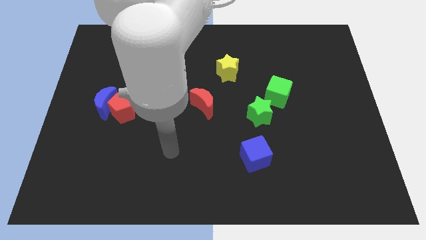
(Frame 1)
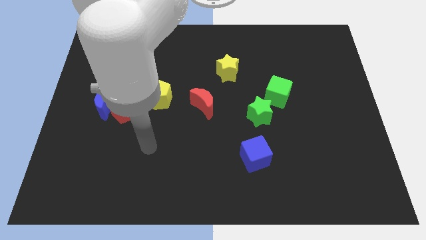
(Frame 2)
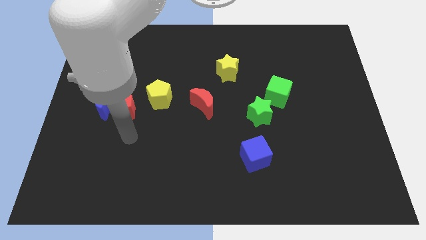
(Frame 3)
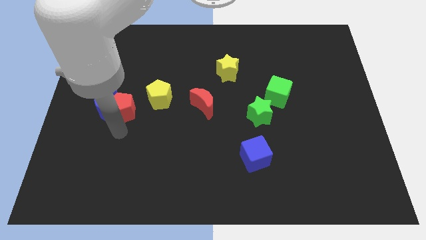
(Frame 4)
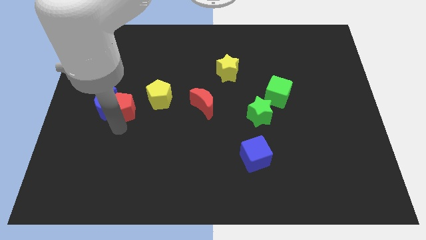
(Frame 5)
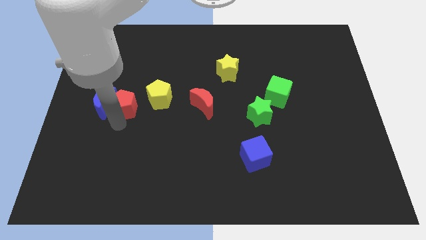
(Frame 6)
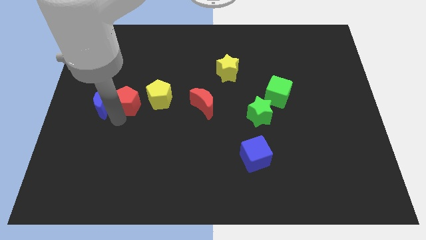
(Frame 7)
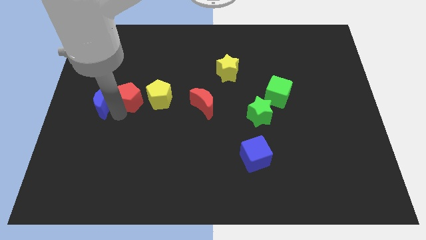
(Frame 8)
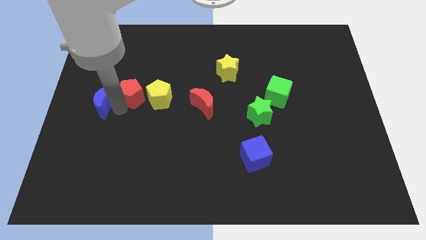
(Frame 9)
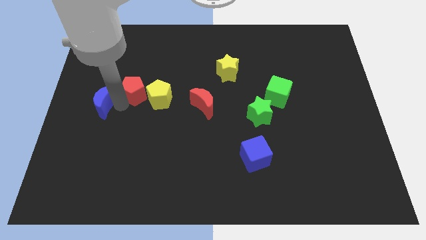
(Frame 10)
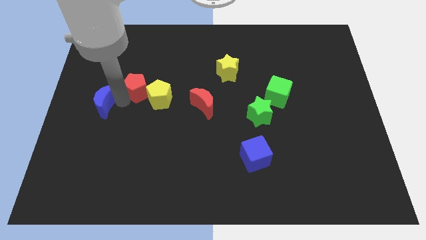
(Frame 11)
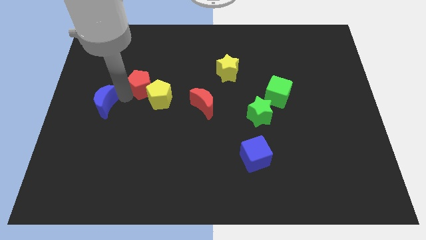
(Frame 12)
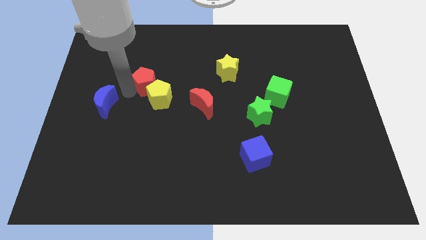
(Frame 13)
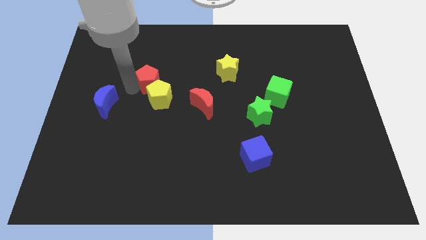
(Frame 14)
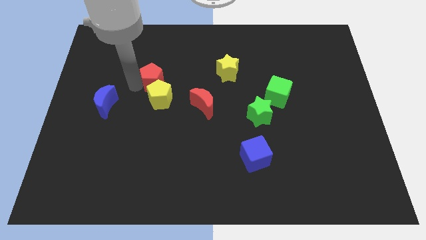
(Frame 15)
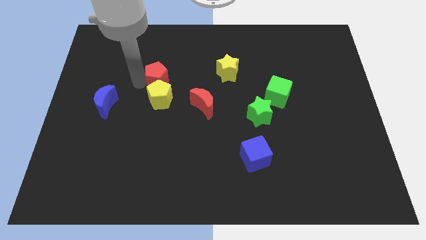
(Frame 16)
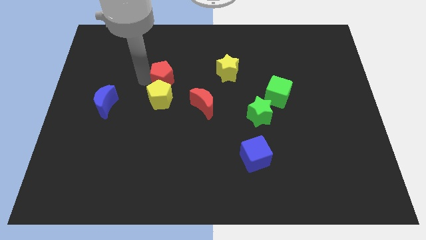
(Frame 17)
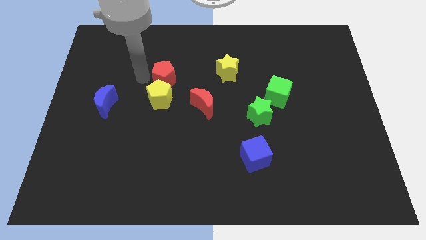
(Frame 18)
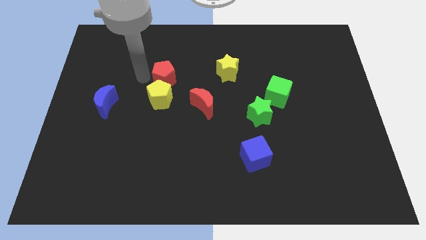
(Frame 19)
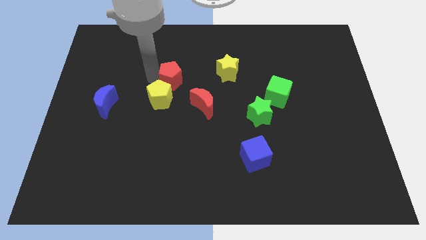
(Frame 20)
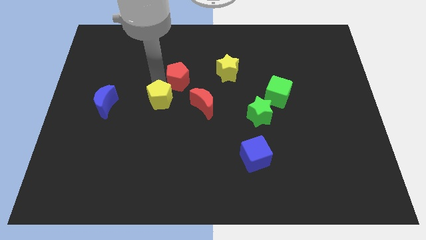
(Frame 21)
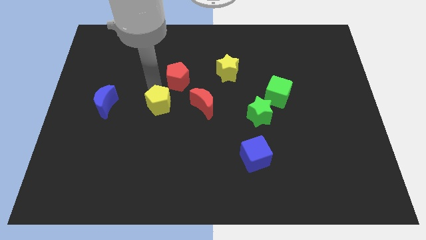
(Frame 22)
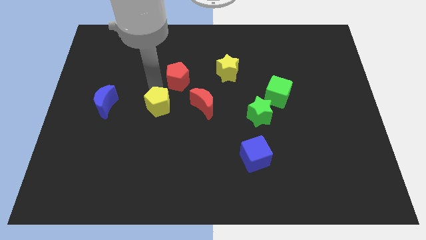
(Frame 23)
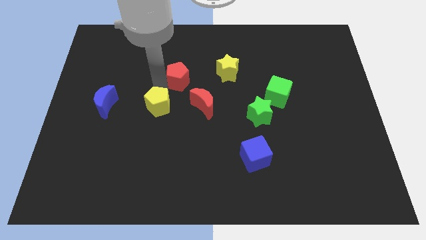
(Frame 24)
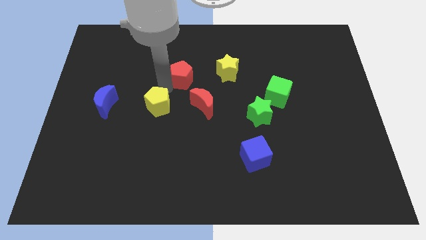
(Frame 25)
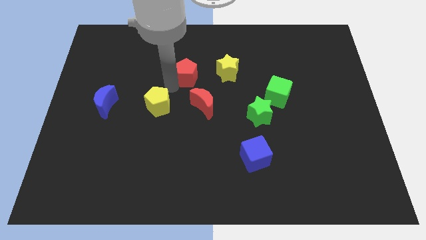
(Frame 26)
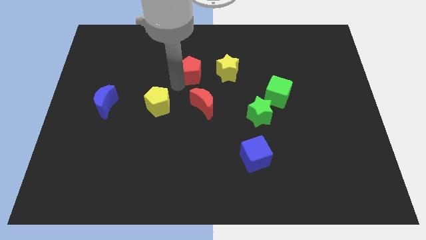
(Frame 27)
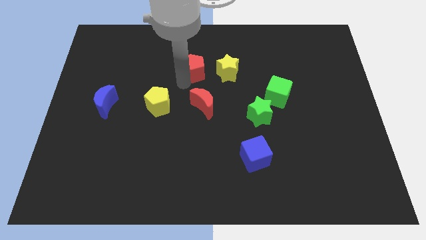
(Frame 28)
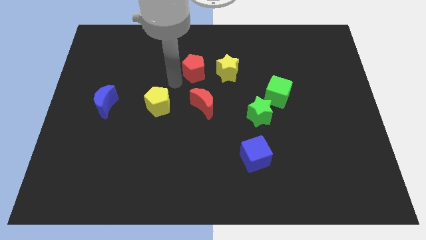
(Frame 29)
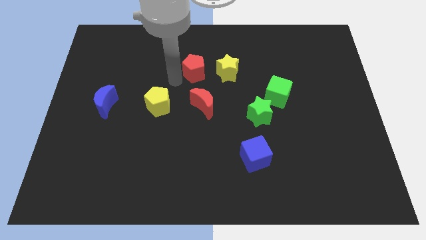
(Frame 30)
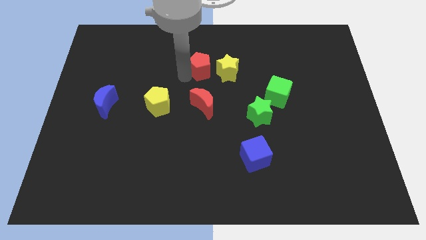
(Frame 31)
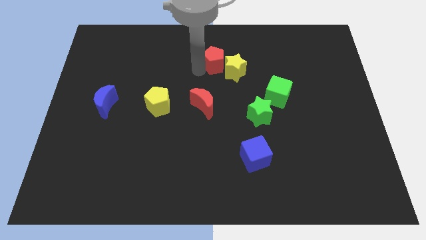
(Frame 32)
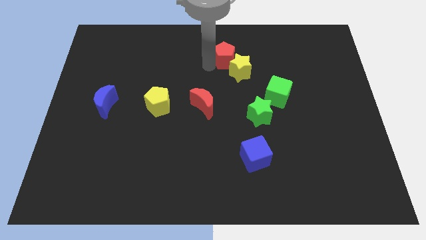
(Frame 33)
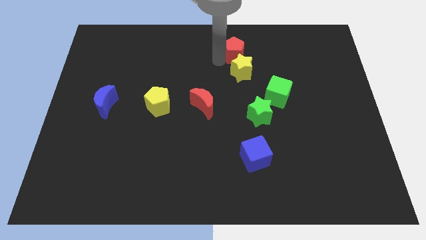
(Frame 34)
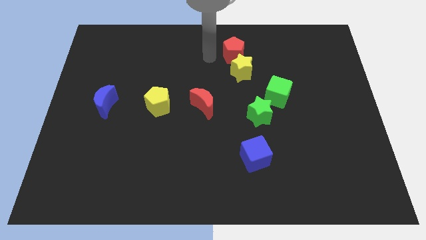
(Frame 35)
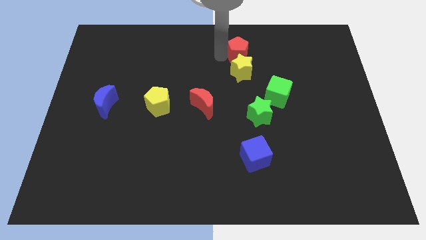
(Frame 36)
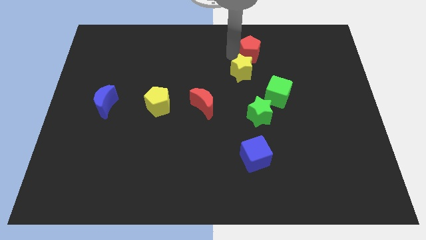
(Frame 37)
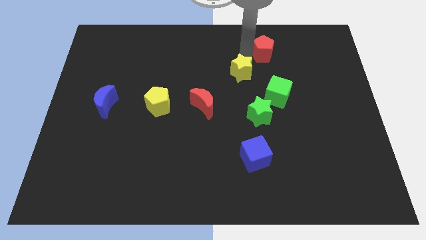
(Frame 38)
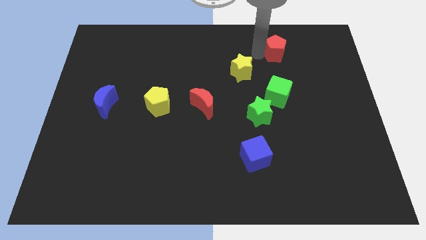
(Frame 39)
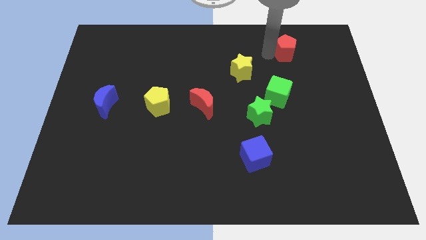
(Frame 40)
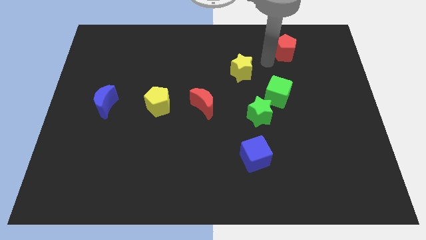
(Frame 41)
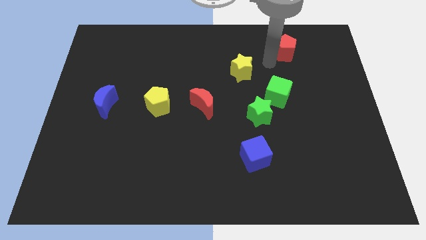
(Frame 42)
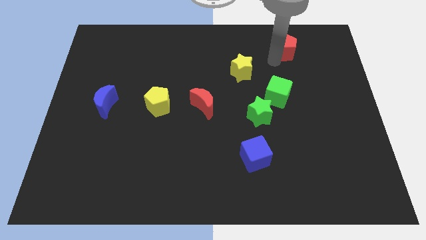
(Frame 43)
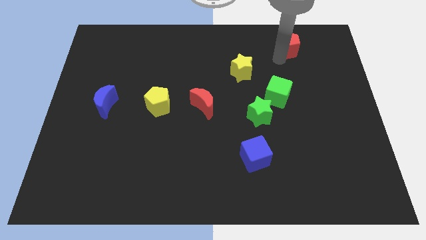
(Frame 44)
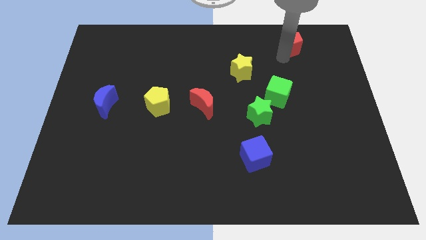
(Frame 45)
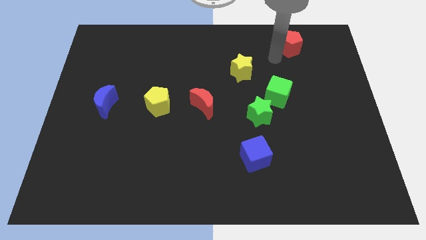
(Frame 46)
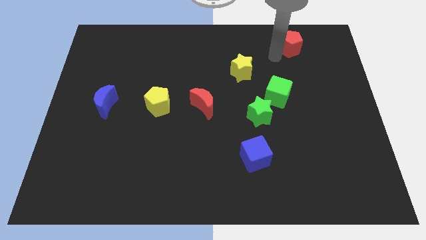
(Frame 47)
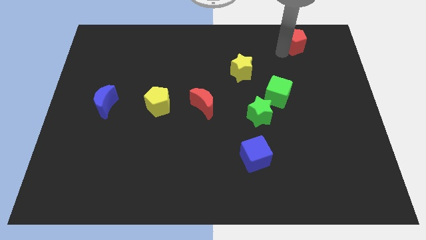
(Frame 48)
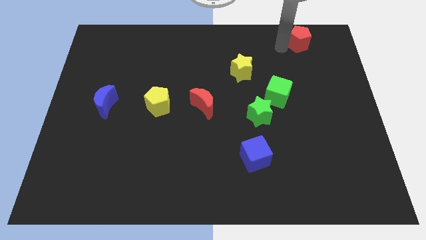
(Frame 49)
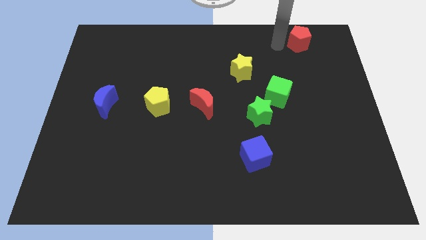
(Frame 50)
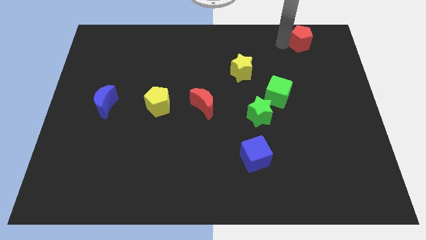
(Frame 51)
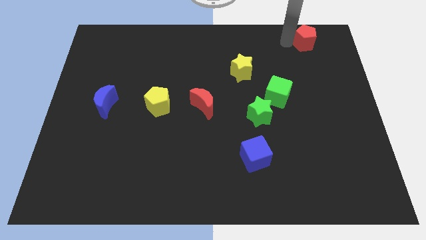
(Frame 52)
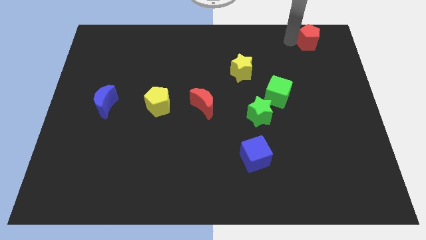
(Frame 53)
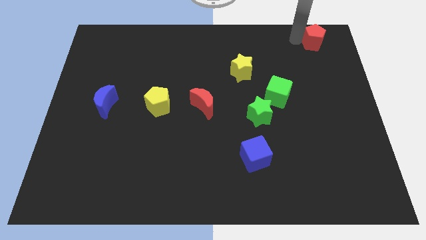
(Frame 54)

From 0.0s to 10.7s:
put the red pentagon to the upper right corner

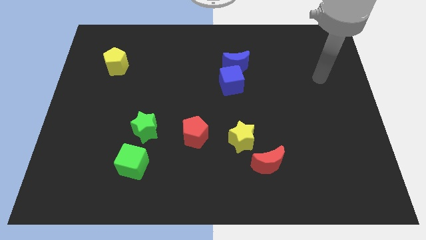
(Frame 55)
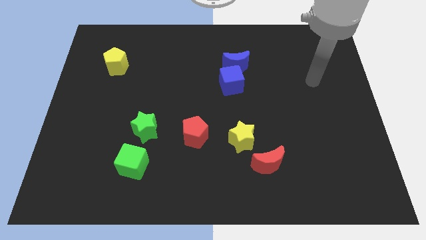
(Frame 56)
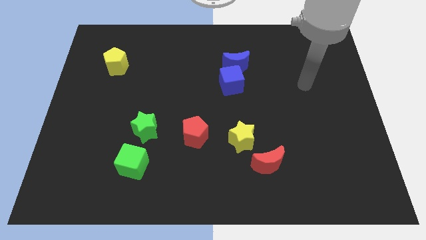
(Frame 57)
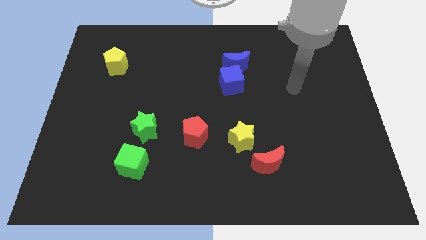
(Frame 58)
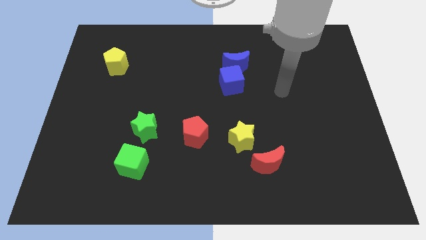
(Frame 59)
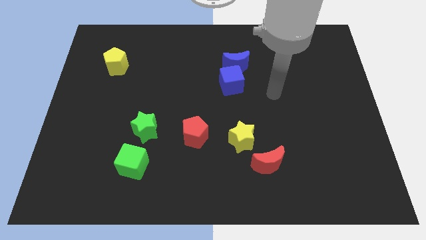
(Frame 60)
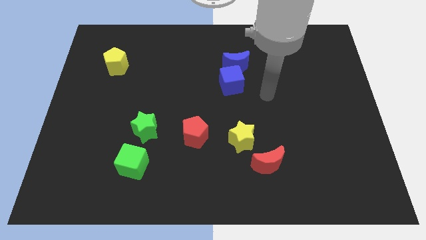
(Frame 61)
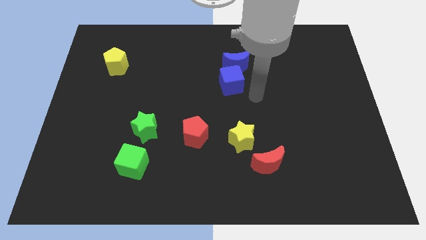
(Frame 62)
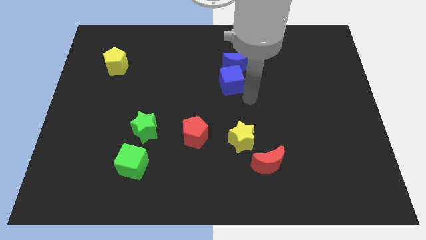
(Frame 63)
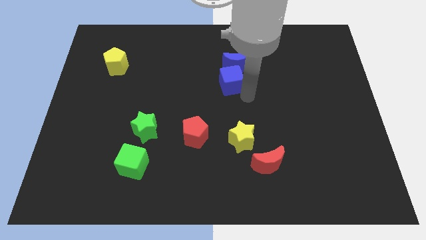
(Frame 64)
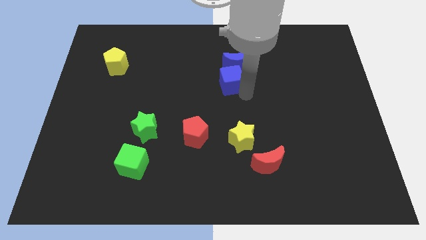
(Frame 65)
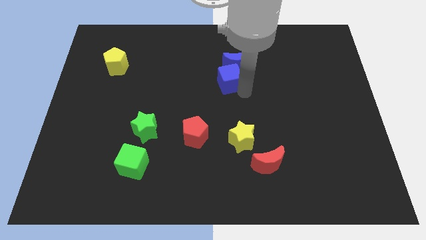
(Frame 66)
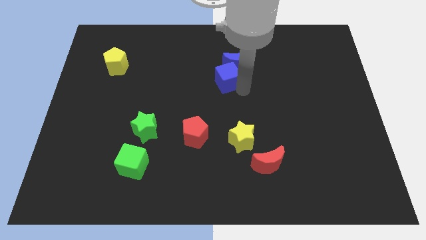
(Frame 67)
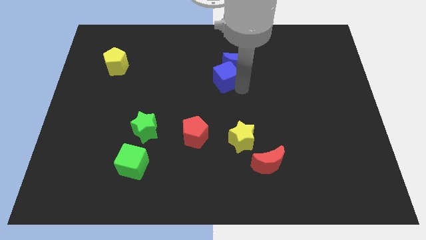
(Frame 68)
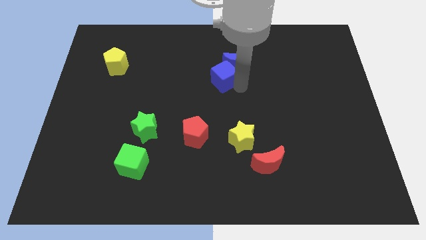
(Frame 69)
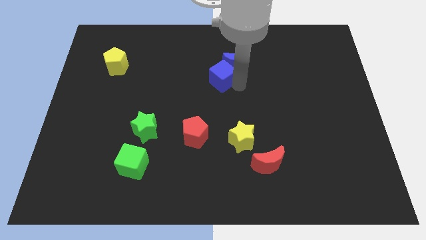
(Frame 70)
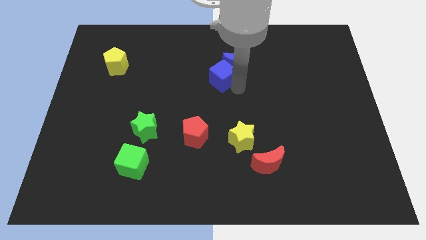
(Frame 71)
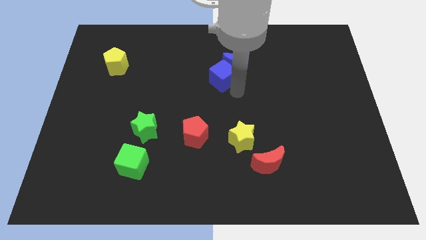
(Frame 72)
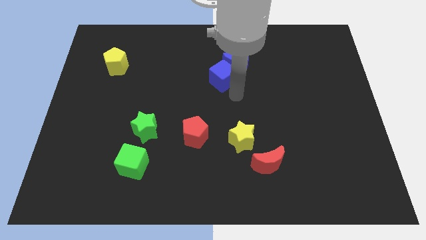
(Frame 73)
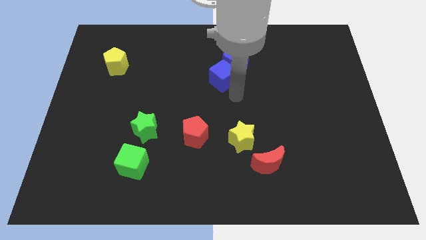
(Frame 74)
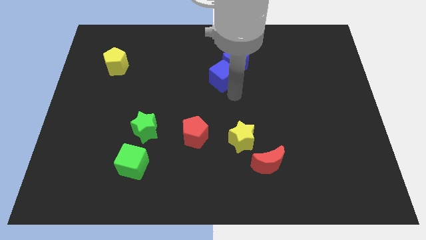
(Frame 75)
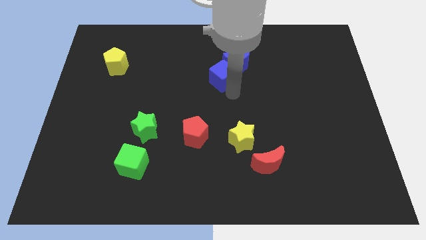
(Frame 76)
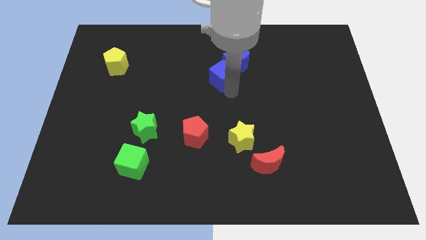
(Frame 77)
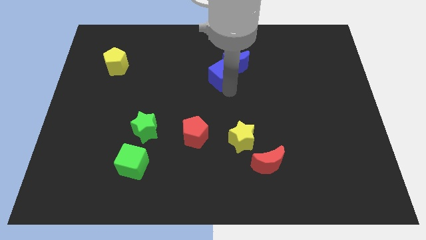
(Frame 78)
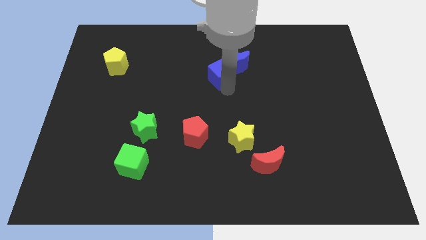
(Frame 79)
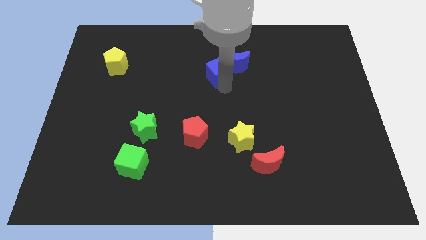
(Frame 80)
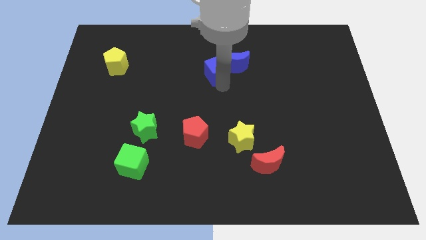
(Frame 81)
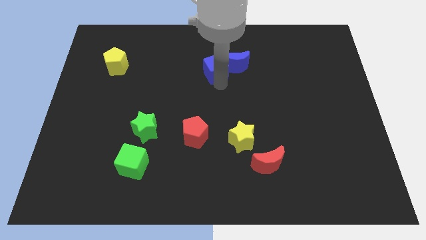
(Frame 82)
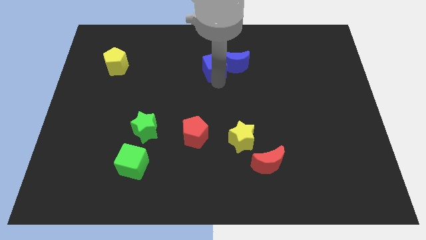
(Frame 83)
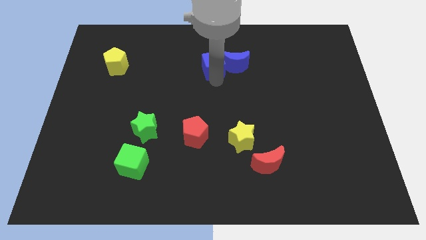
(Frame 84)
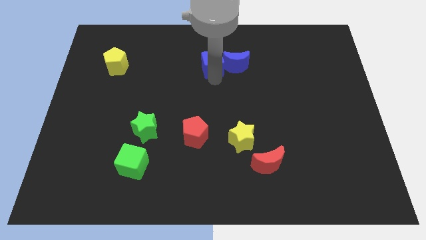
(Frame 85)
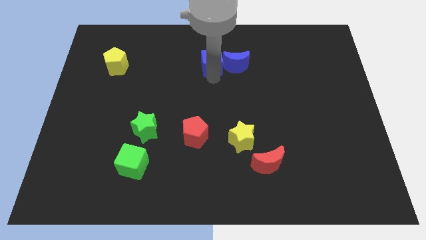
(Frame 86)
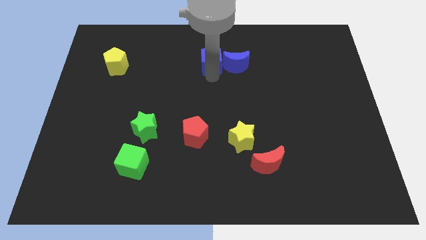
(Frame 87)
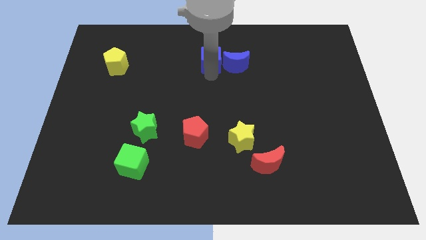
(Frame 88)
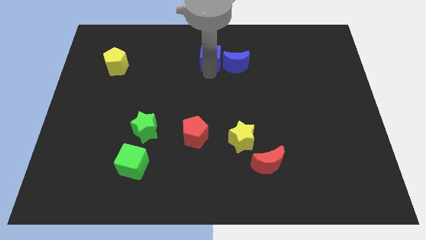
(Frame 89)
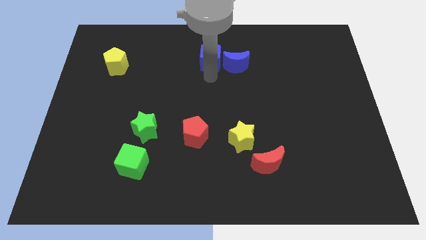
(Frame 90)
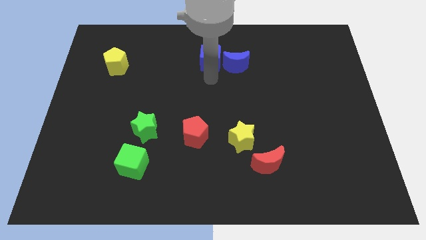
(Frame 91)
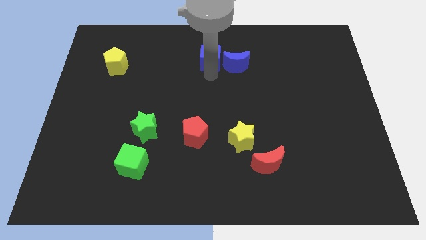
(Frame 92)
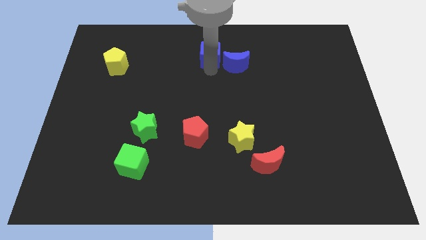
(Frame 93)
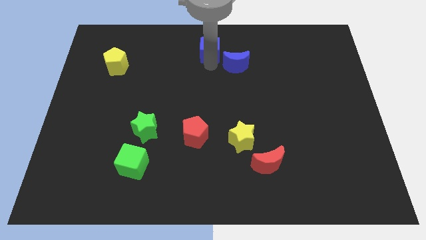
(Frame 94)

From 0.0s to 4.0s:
move the blue cube to the top
